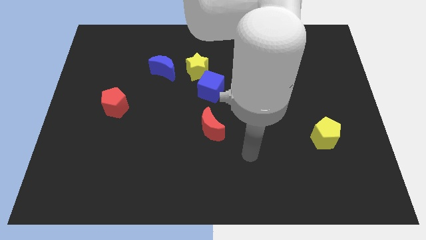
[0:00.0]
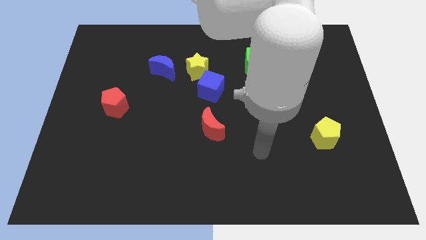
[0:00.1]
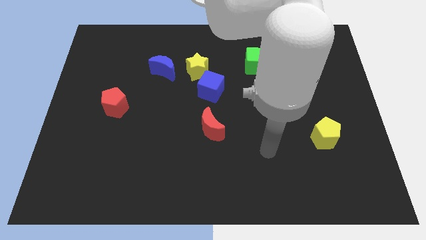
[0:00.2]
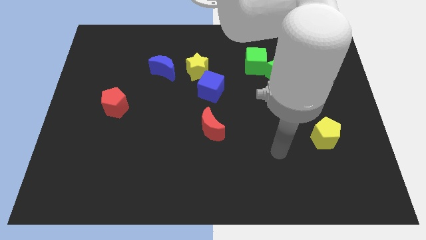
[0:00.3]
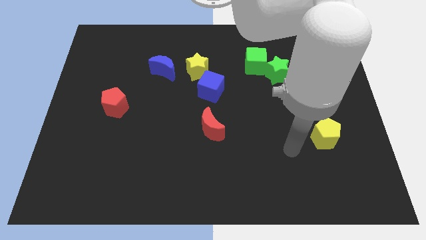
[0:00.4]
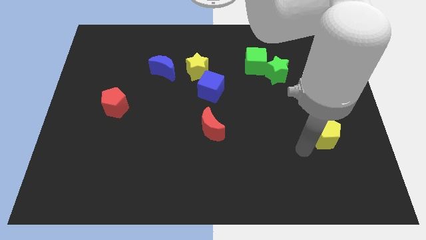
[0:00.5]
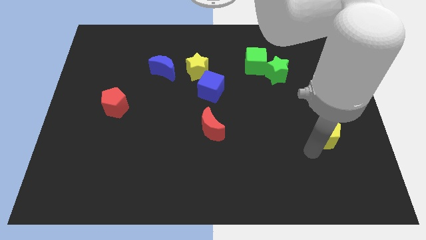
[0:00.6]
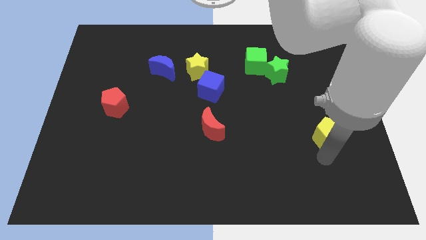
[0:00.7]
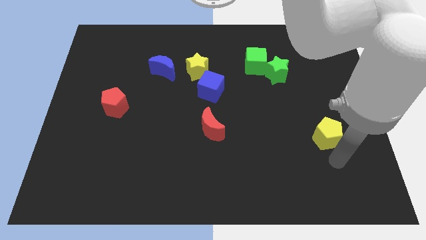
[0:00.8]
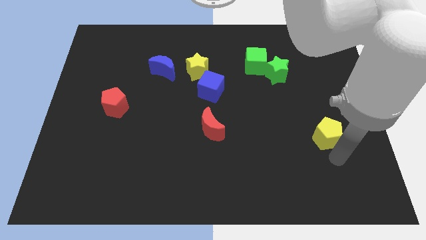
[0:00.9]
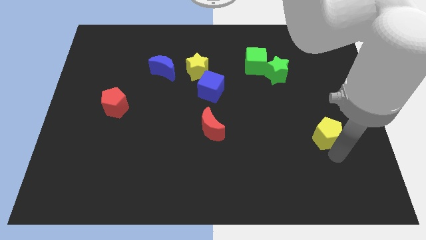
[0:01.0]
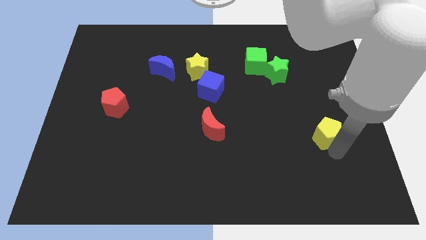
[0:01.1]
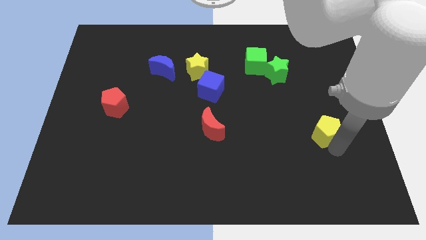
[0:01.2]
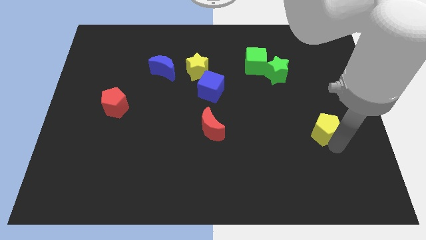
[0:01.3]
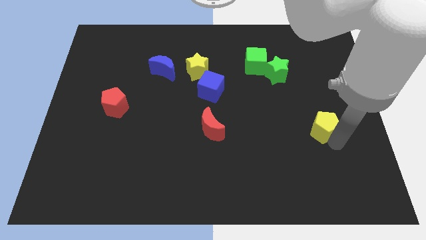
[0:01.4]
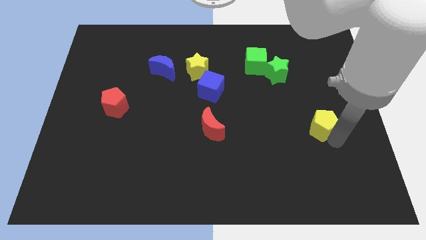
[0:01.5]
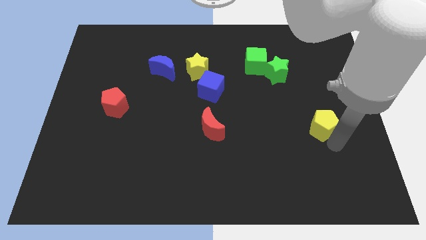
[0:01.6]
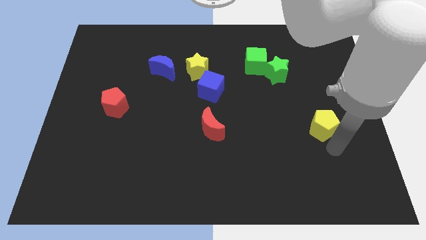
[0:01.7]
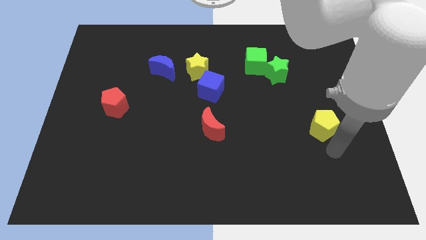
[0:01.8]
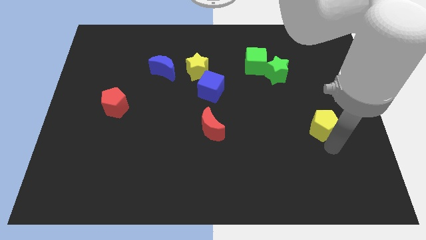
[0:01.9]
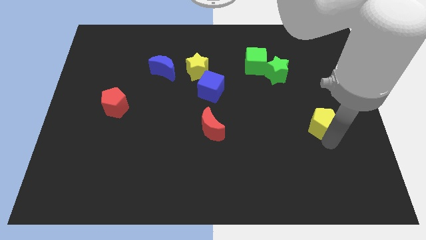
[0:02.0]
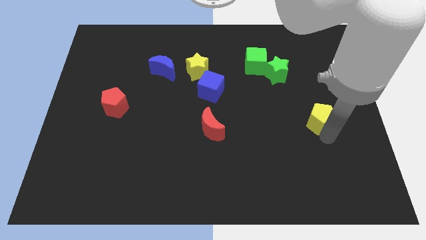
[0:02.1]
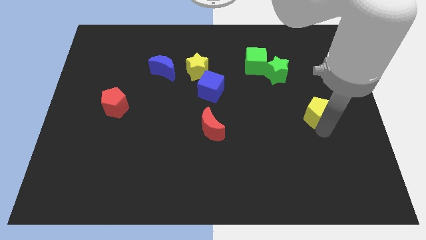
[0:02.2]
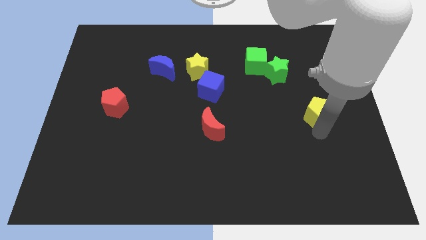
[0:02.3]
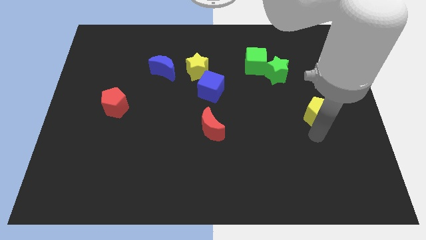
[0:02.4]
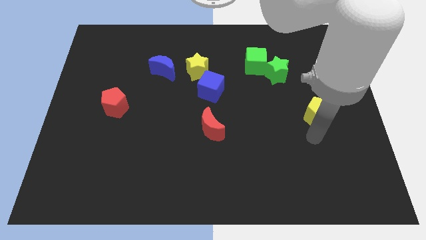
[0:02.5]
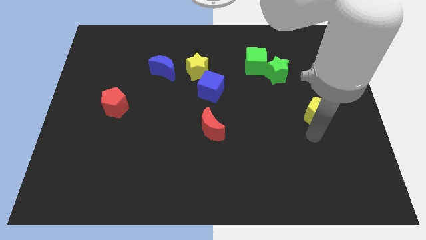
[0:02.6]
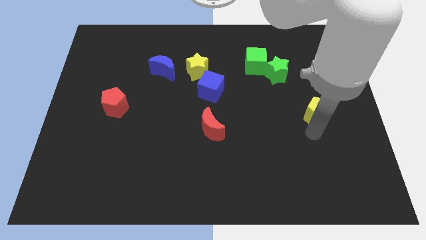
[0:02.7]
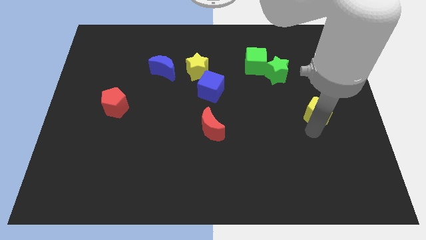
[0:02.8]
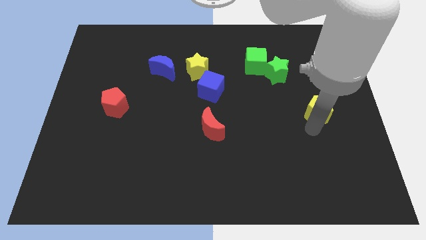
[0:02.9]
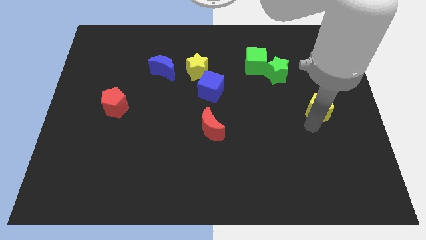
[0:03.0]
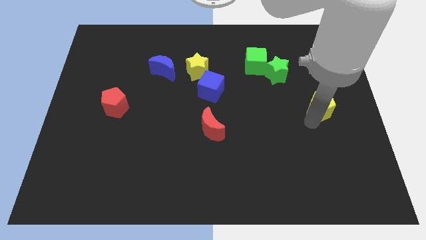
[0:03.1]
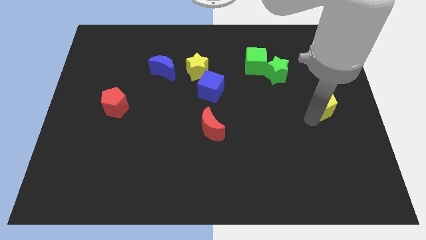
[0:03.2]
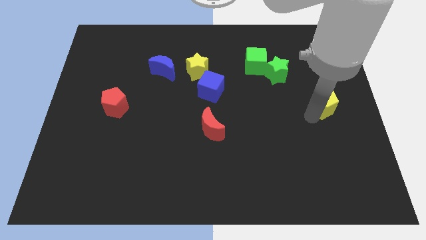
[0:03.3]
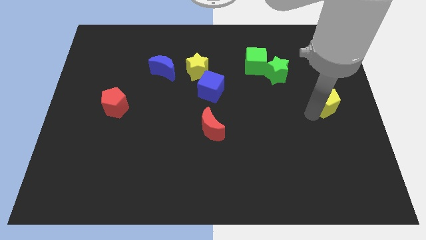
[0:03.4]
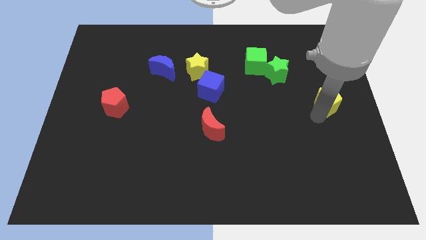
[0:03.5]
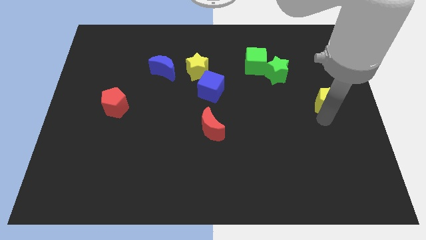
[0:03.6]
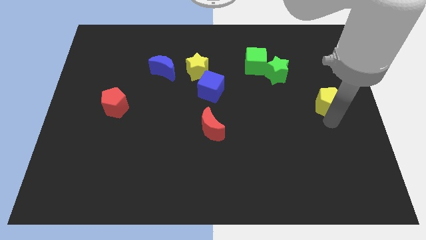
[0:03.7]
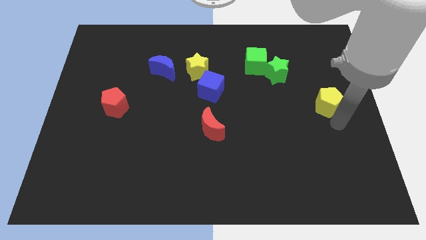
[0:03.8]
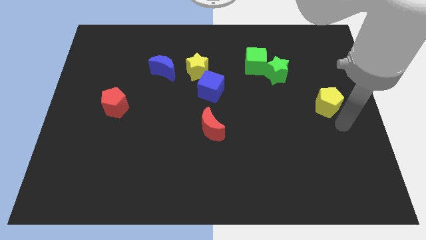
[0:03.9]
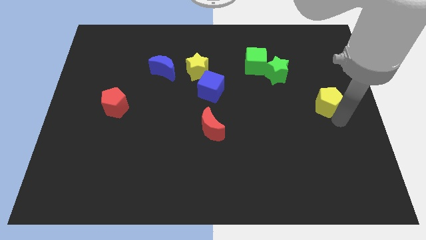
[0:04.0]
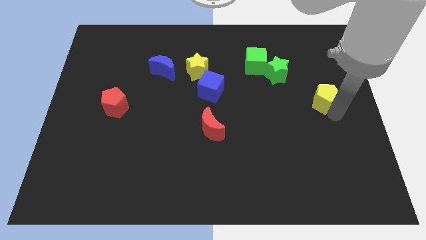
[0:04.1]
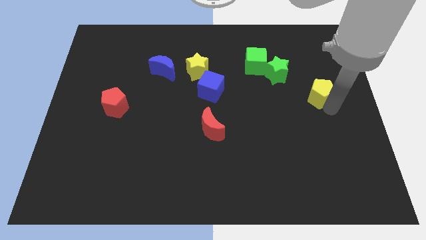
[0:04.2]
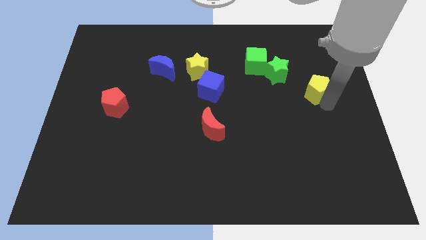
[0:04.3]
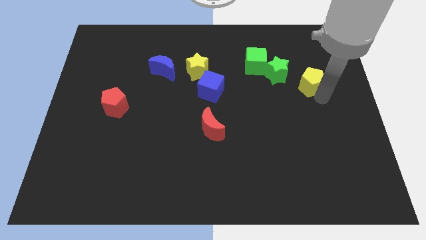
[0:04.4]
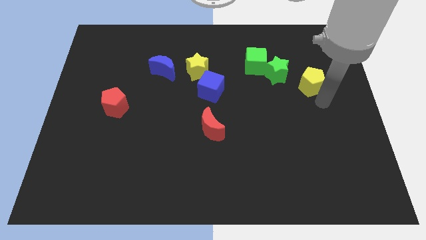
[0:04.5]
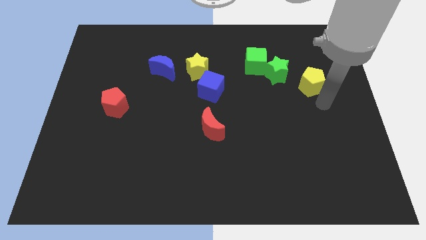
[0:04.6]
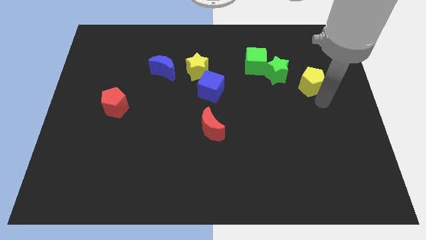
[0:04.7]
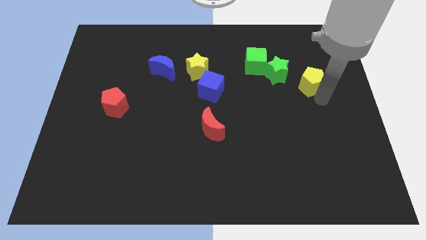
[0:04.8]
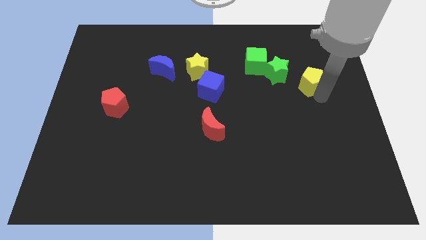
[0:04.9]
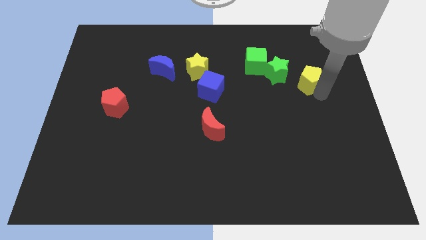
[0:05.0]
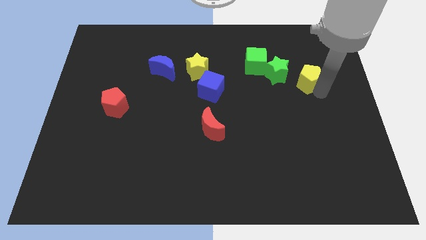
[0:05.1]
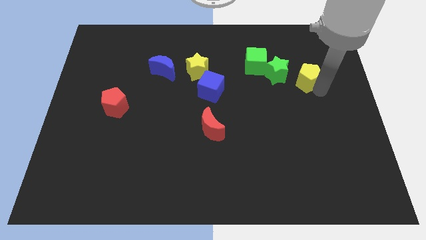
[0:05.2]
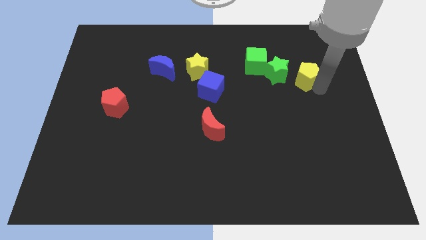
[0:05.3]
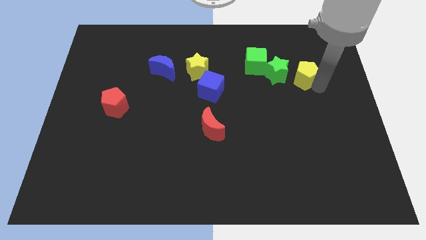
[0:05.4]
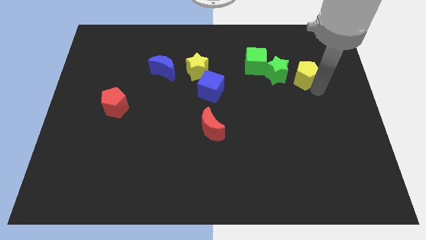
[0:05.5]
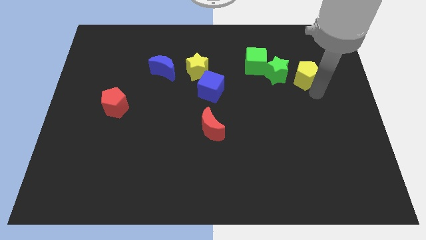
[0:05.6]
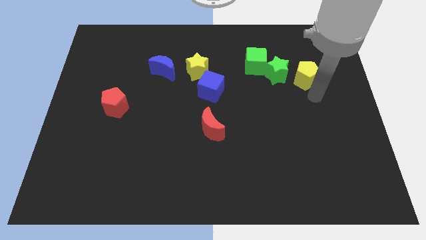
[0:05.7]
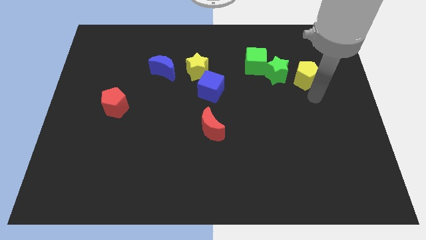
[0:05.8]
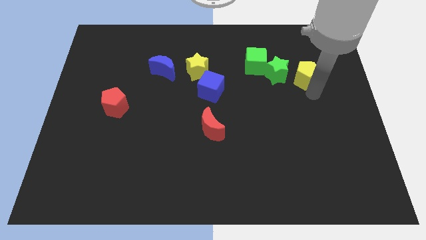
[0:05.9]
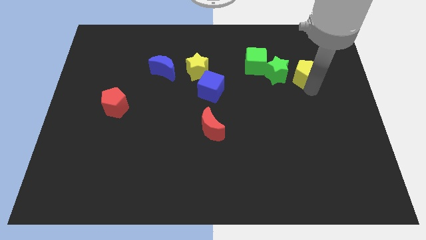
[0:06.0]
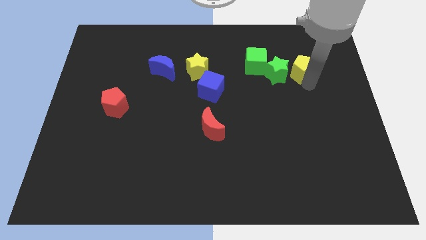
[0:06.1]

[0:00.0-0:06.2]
move the yellow pentagon to the top right of the green star
